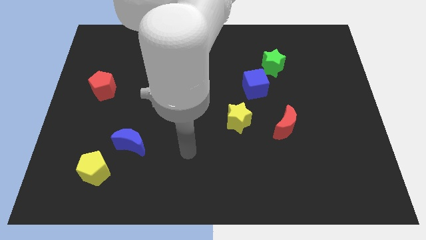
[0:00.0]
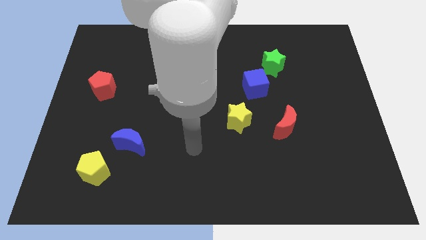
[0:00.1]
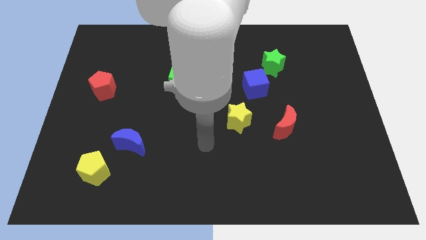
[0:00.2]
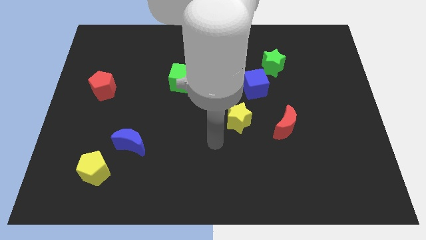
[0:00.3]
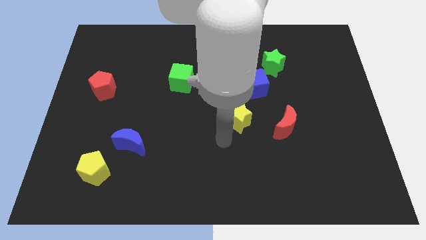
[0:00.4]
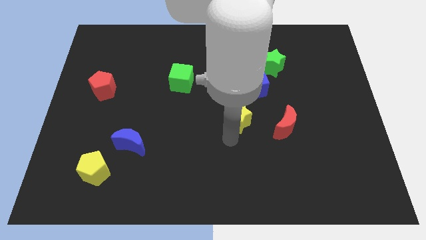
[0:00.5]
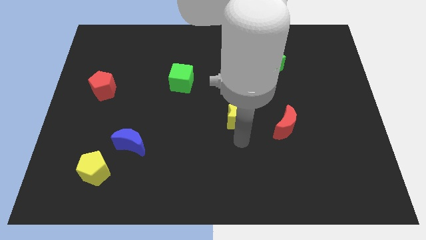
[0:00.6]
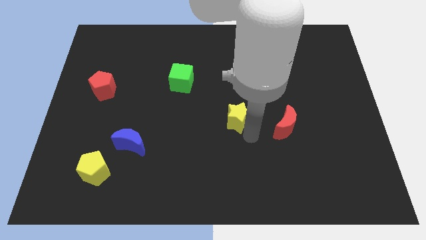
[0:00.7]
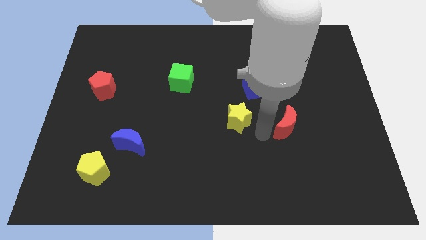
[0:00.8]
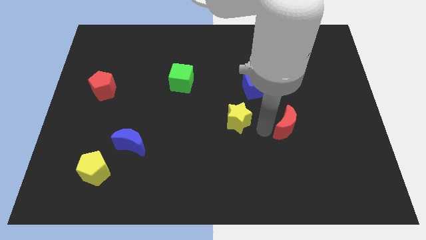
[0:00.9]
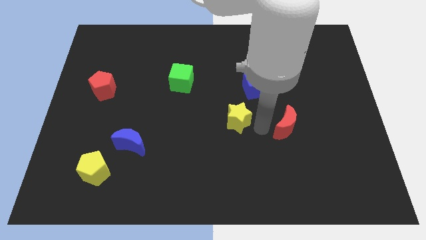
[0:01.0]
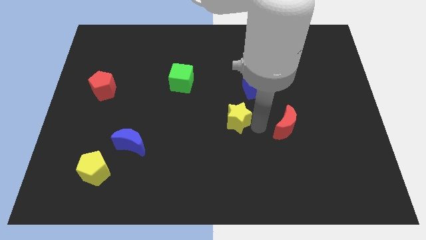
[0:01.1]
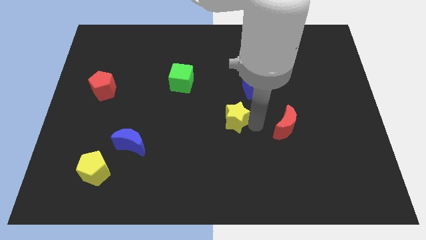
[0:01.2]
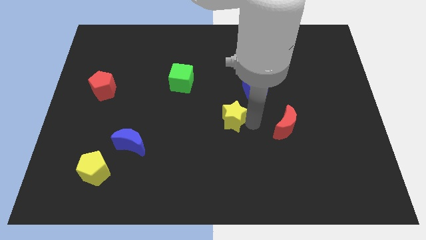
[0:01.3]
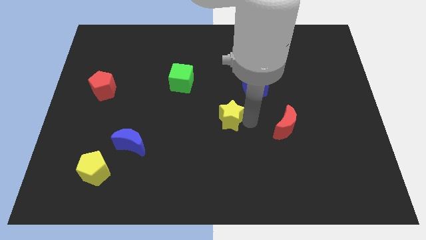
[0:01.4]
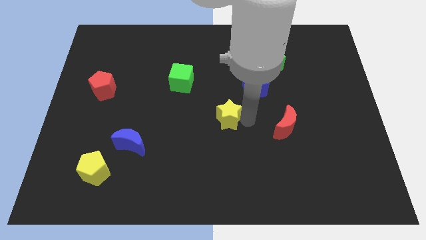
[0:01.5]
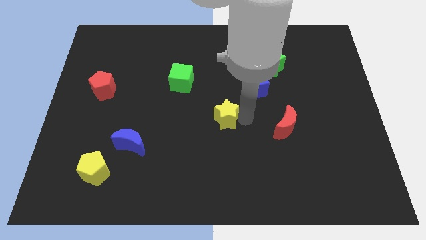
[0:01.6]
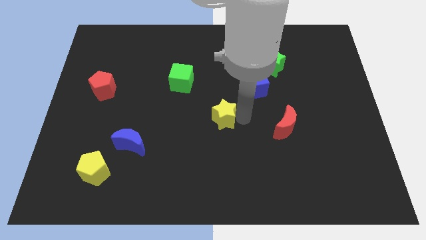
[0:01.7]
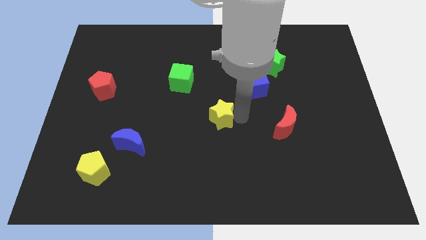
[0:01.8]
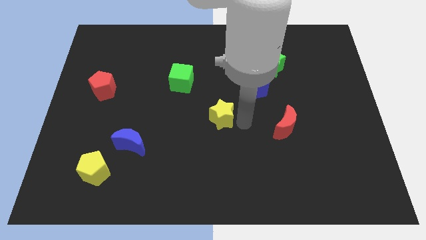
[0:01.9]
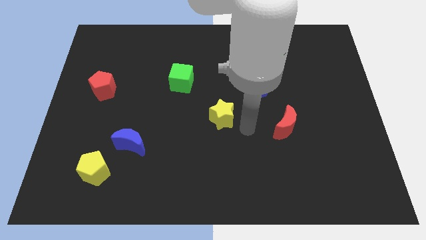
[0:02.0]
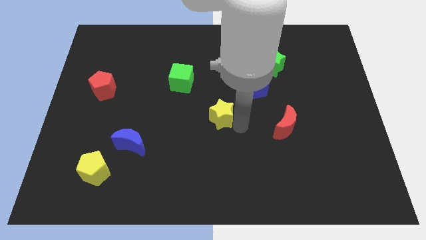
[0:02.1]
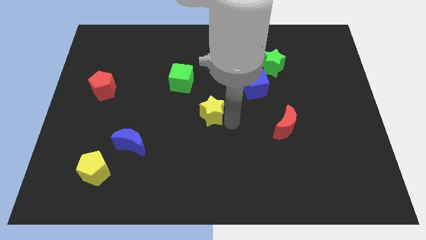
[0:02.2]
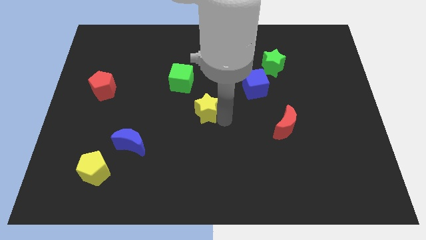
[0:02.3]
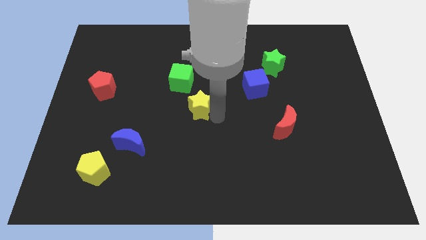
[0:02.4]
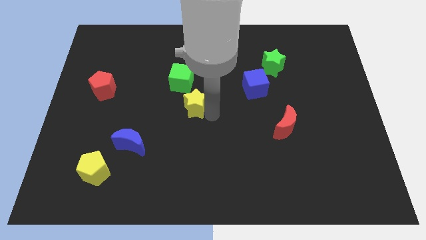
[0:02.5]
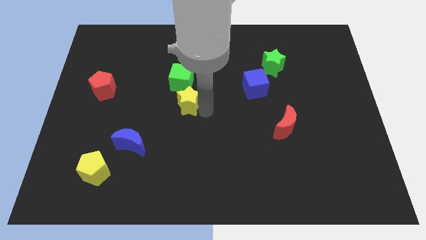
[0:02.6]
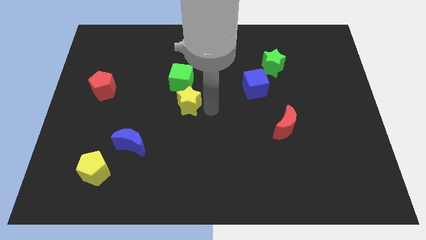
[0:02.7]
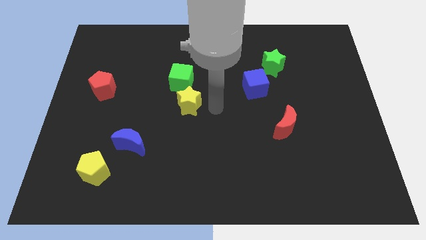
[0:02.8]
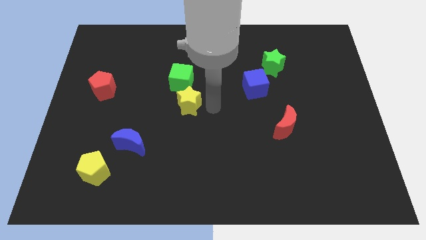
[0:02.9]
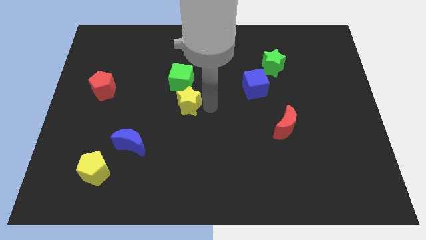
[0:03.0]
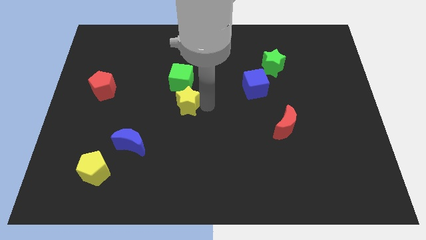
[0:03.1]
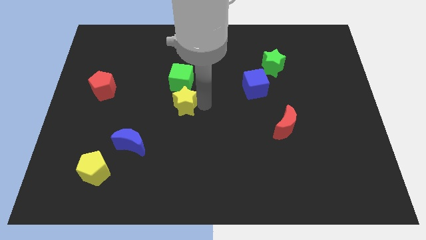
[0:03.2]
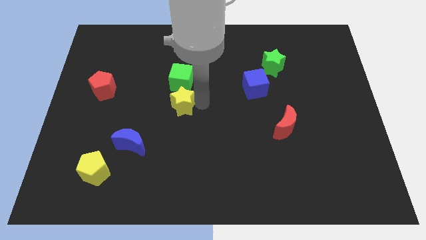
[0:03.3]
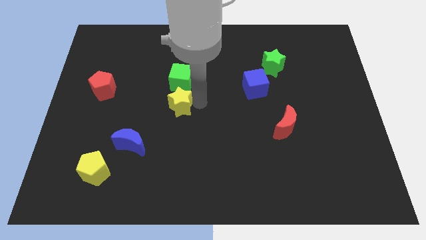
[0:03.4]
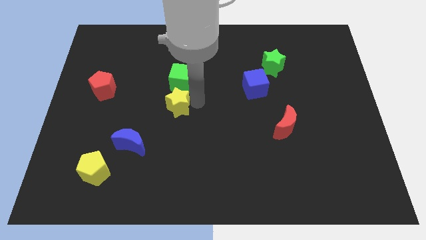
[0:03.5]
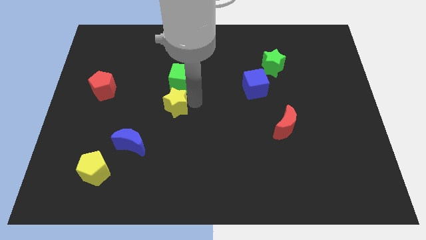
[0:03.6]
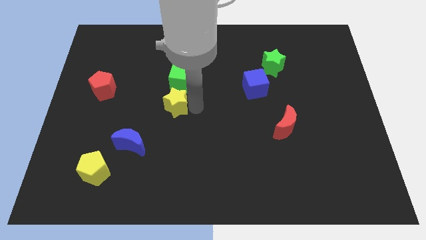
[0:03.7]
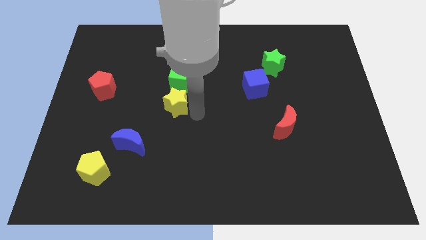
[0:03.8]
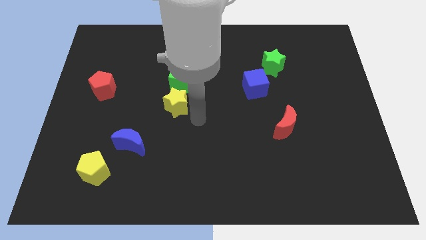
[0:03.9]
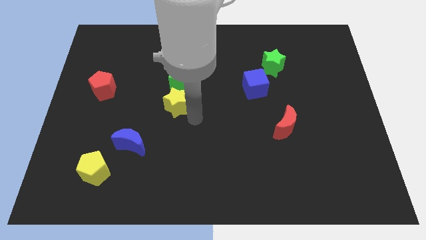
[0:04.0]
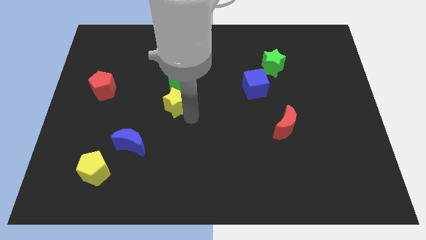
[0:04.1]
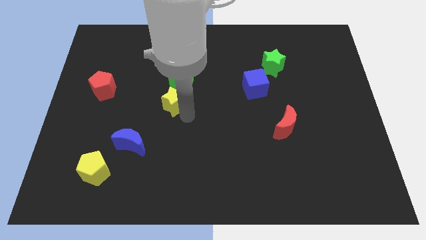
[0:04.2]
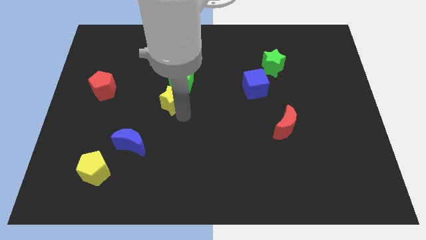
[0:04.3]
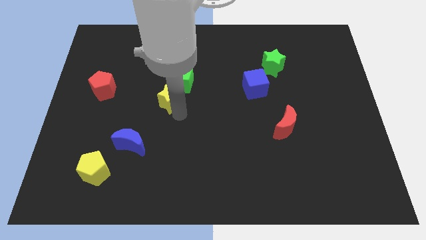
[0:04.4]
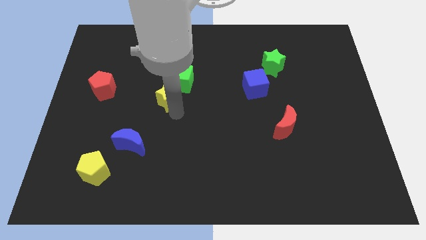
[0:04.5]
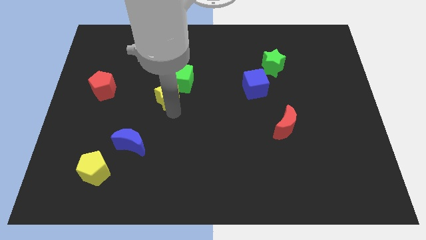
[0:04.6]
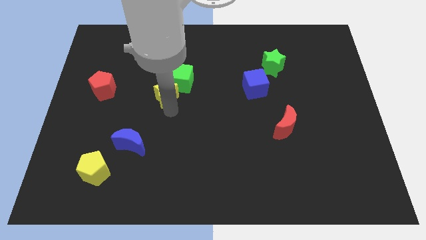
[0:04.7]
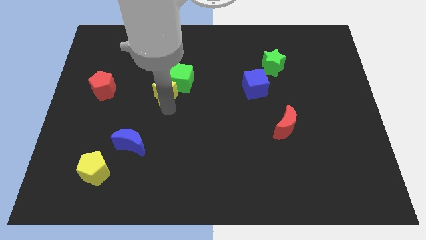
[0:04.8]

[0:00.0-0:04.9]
push the yellow star just left of the green cube

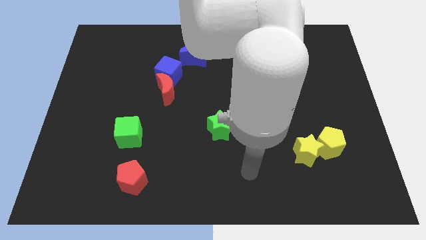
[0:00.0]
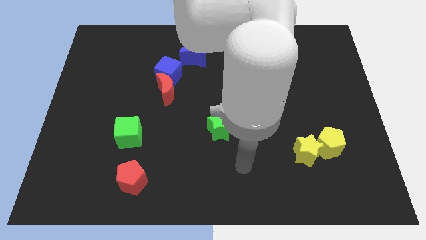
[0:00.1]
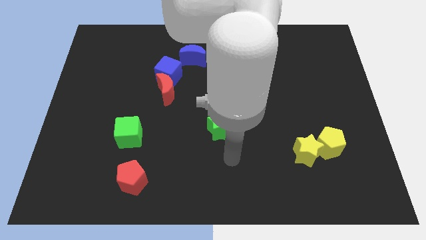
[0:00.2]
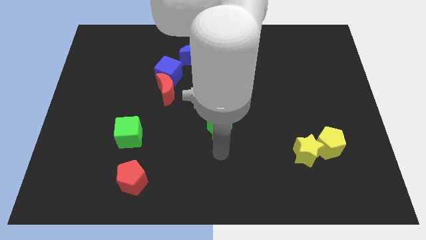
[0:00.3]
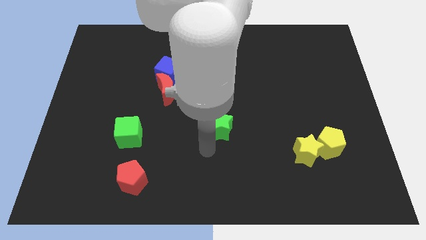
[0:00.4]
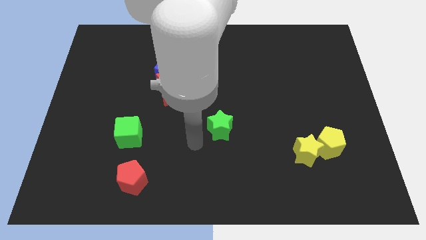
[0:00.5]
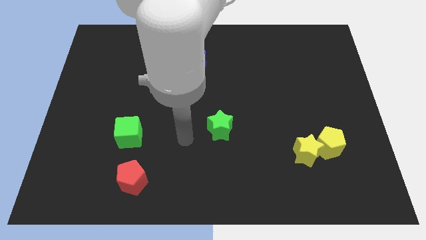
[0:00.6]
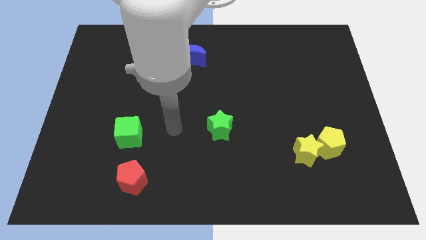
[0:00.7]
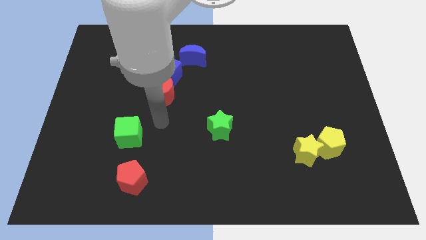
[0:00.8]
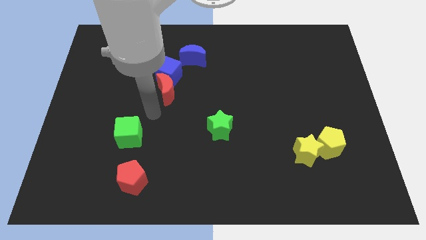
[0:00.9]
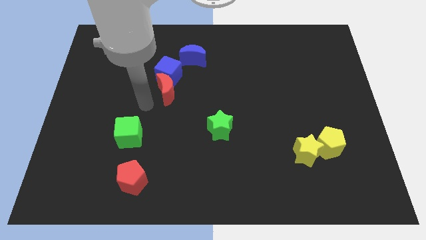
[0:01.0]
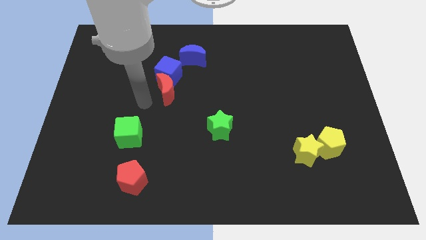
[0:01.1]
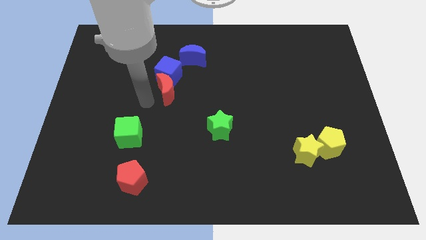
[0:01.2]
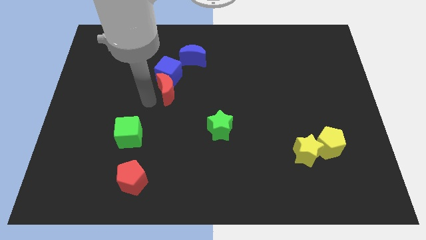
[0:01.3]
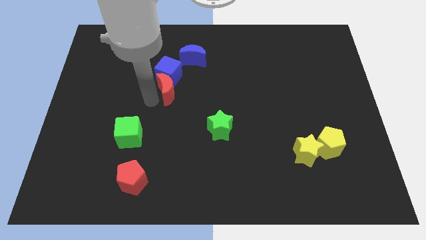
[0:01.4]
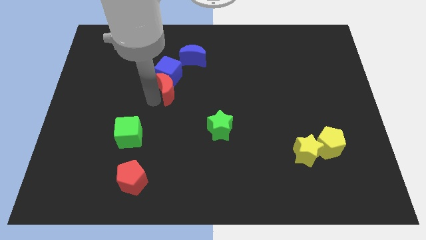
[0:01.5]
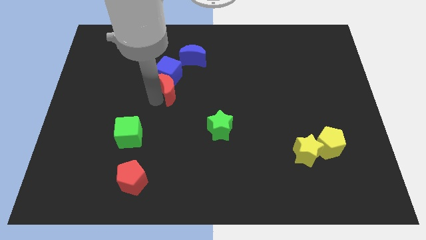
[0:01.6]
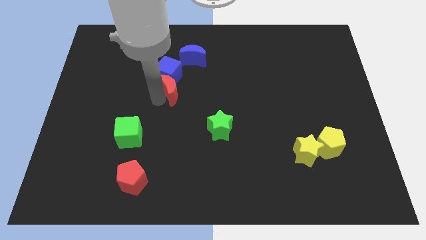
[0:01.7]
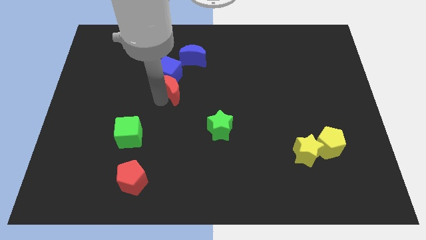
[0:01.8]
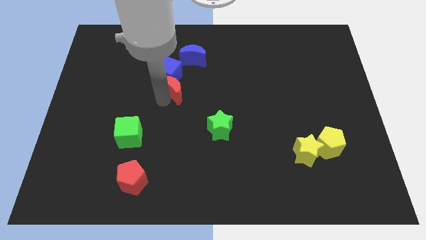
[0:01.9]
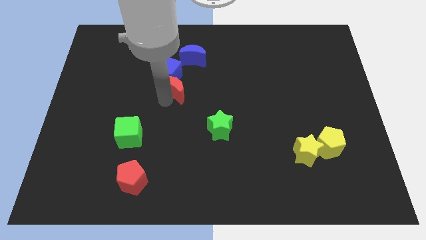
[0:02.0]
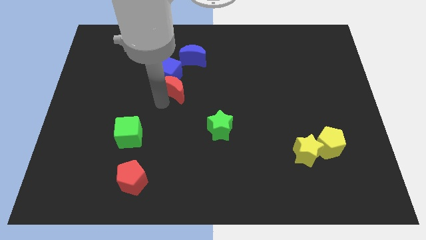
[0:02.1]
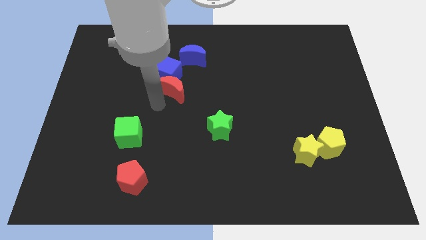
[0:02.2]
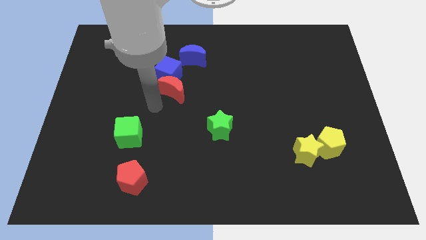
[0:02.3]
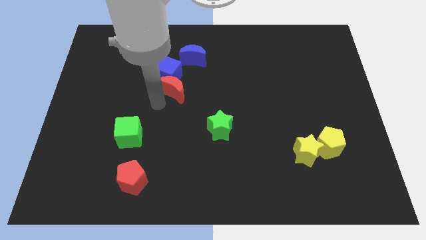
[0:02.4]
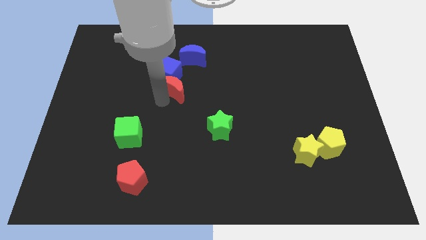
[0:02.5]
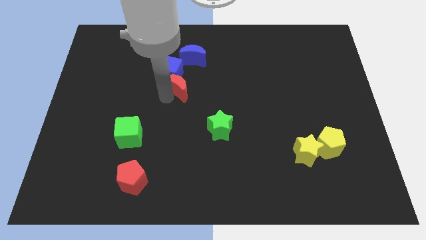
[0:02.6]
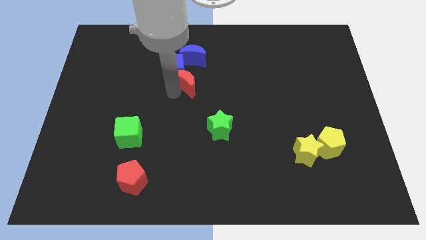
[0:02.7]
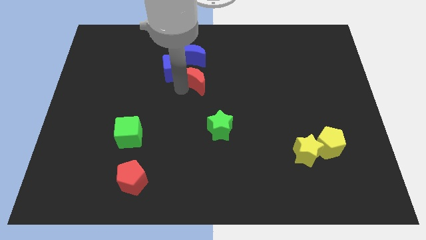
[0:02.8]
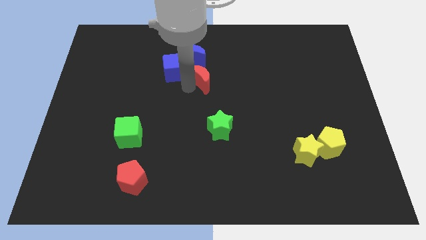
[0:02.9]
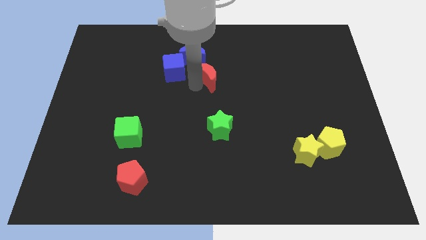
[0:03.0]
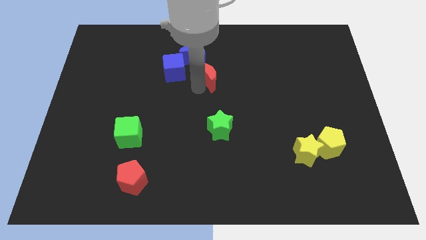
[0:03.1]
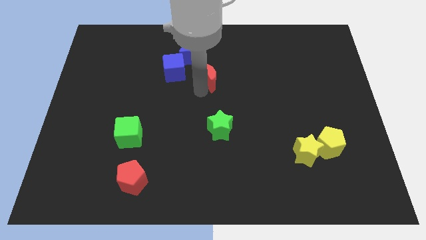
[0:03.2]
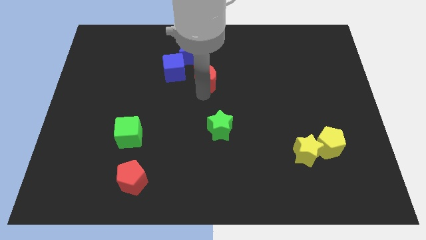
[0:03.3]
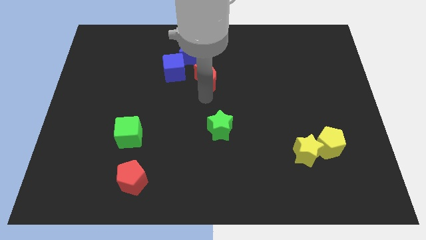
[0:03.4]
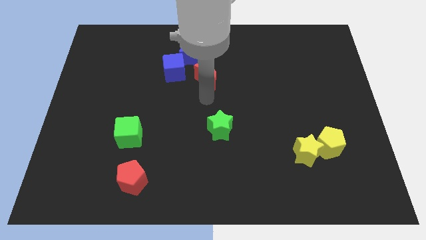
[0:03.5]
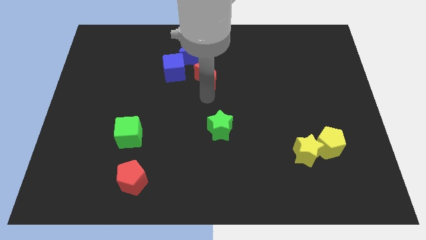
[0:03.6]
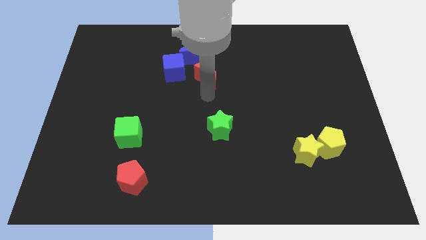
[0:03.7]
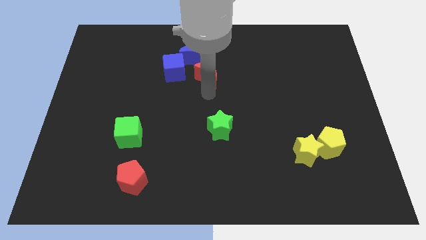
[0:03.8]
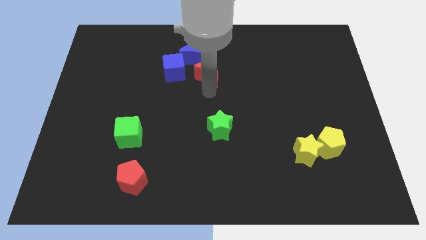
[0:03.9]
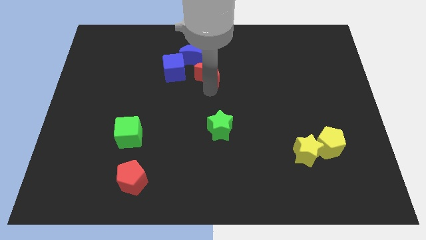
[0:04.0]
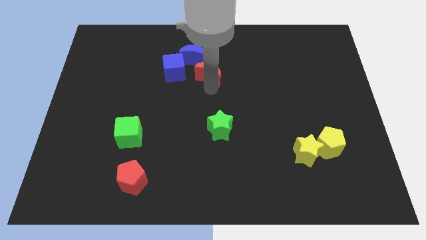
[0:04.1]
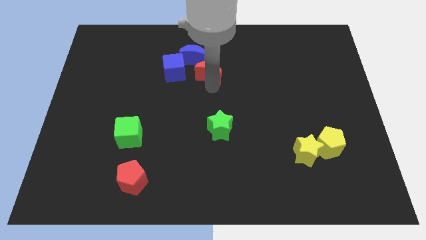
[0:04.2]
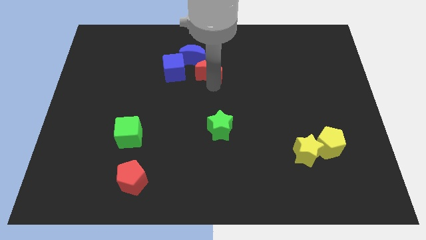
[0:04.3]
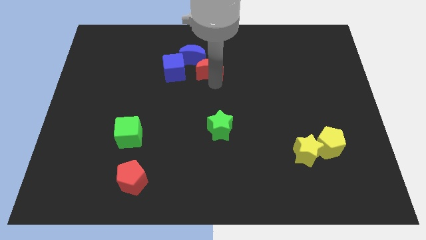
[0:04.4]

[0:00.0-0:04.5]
move the red moon to the right of the blue moon
